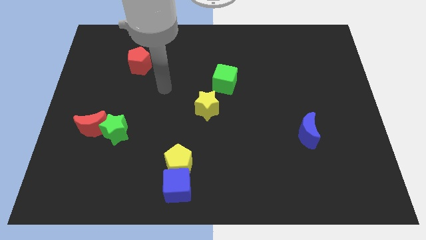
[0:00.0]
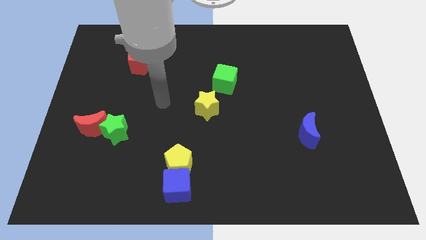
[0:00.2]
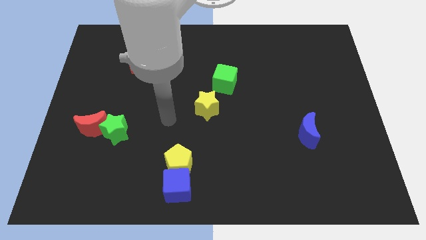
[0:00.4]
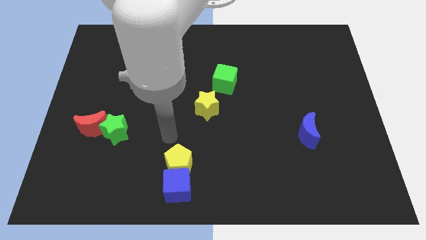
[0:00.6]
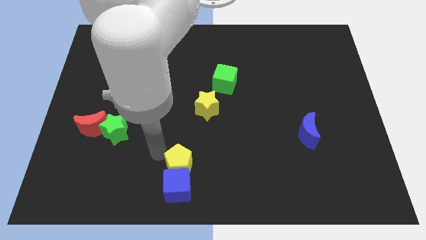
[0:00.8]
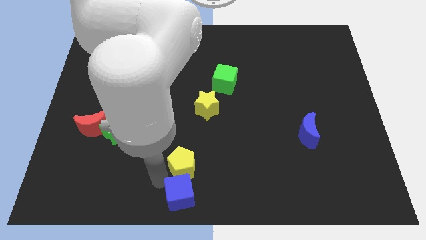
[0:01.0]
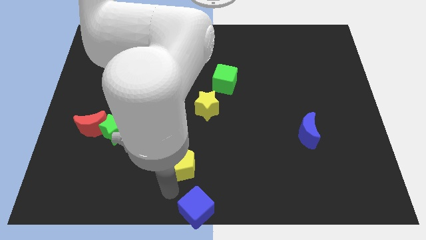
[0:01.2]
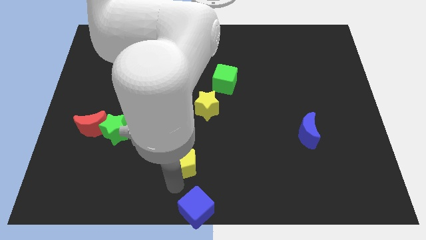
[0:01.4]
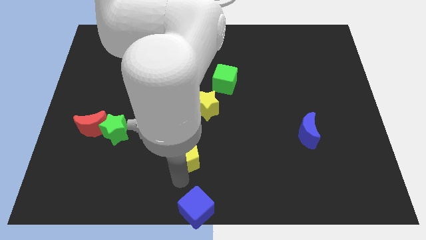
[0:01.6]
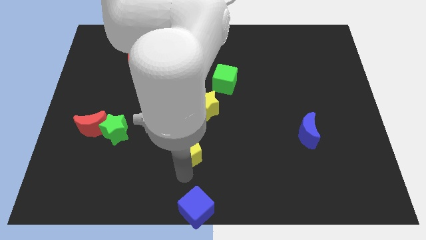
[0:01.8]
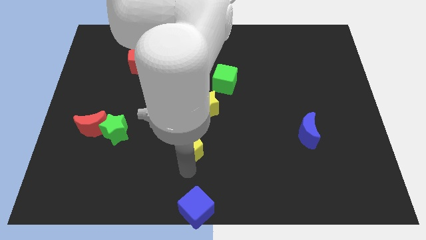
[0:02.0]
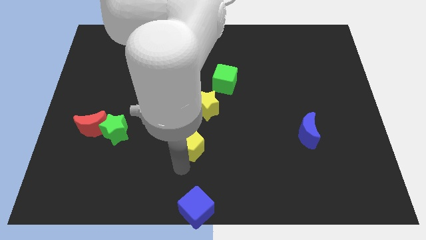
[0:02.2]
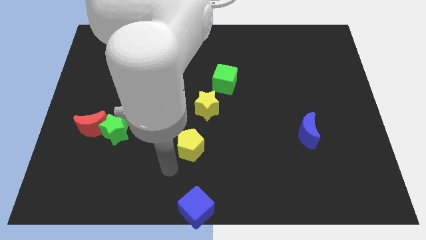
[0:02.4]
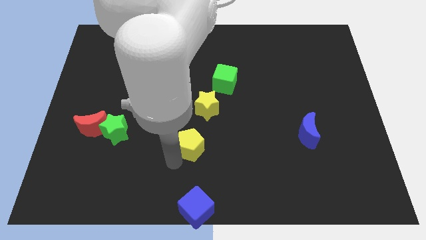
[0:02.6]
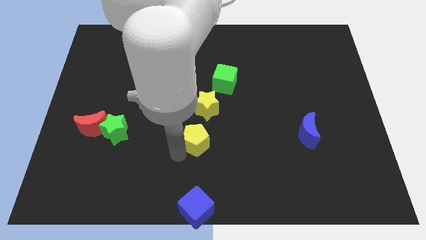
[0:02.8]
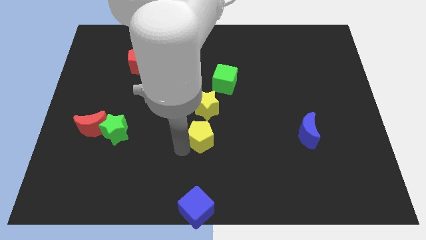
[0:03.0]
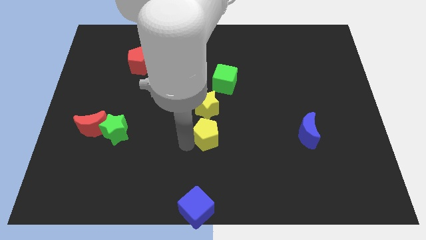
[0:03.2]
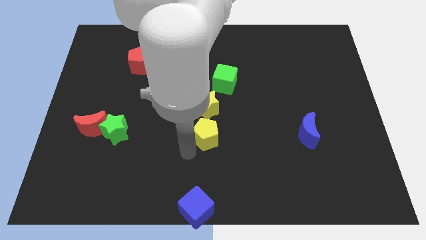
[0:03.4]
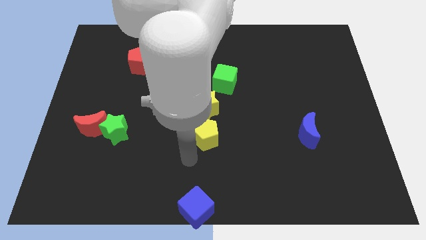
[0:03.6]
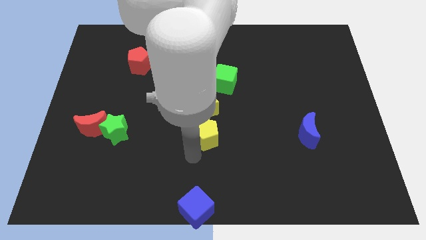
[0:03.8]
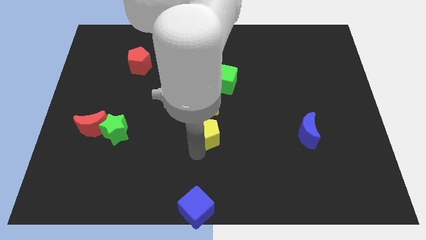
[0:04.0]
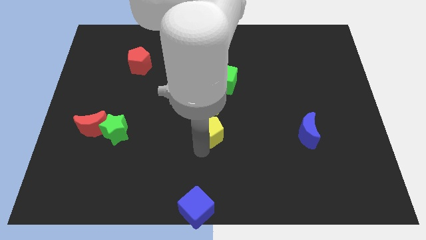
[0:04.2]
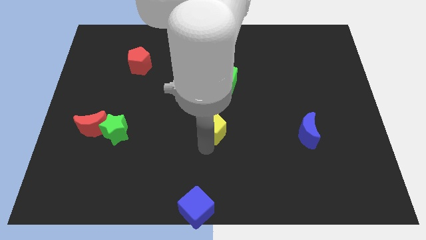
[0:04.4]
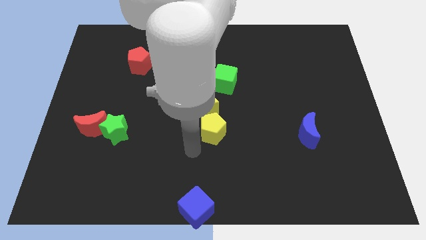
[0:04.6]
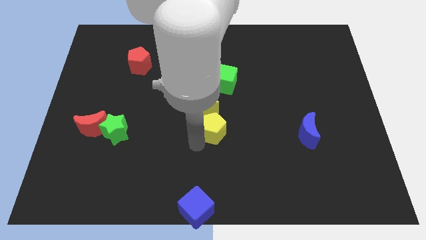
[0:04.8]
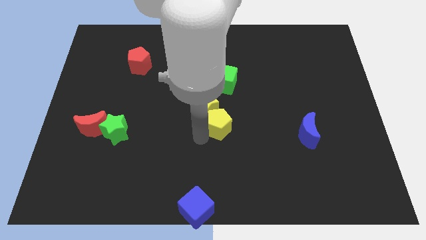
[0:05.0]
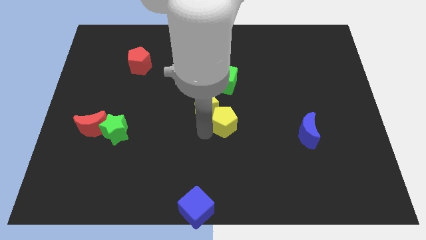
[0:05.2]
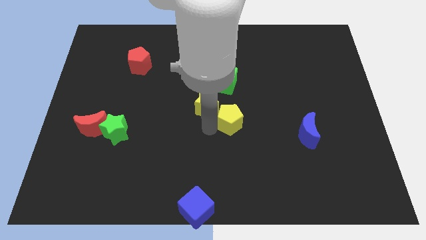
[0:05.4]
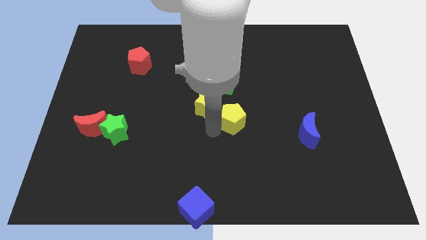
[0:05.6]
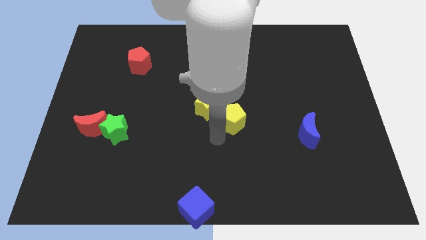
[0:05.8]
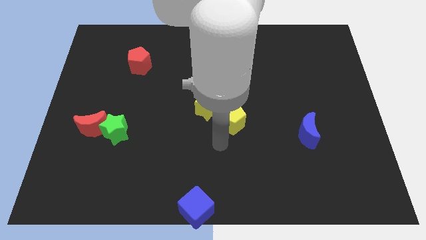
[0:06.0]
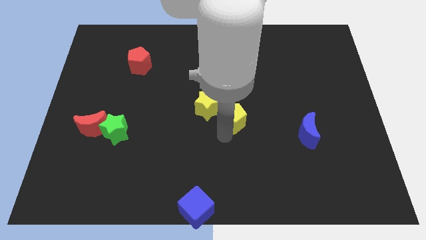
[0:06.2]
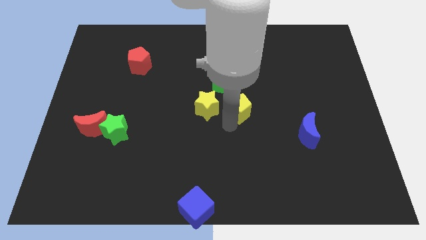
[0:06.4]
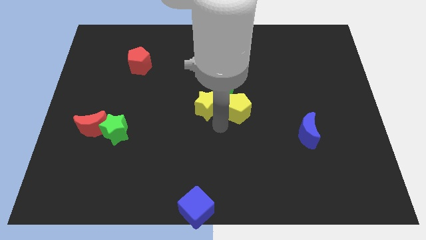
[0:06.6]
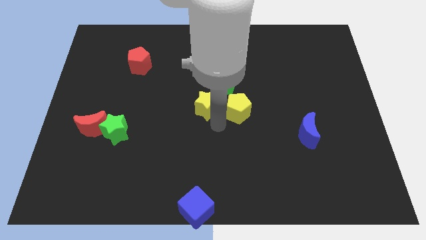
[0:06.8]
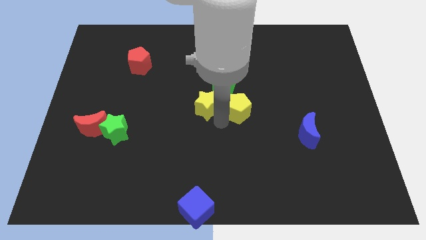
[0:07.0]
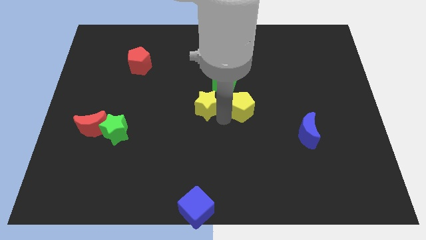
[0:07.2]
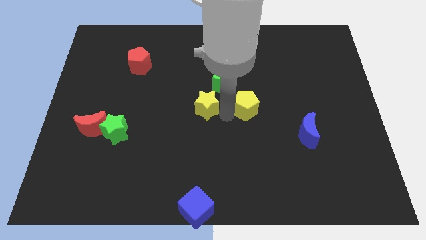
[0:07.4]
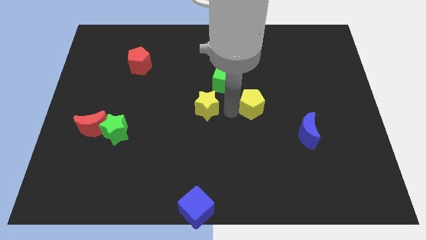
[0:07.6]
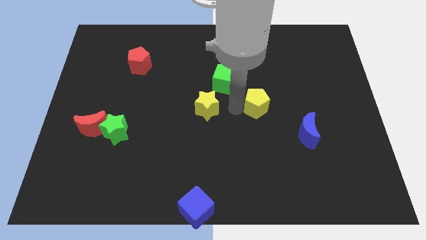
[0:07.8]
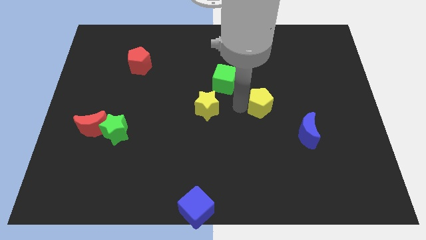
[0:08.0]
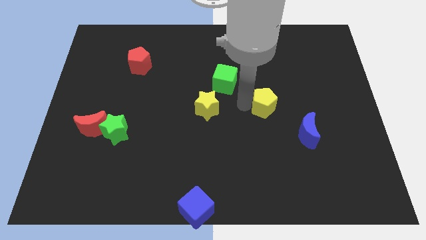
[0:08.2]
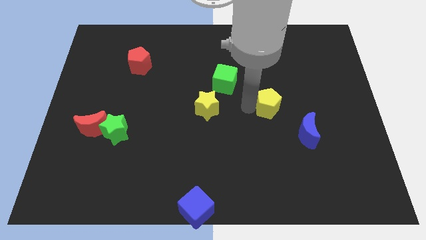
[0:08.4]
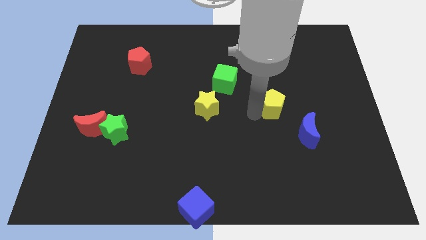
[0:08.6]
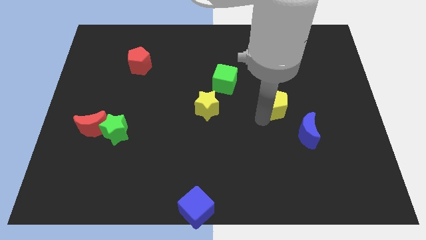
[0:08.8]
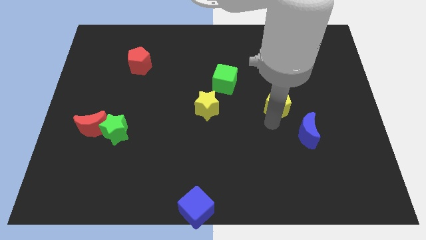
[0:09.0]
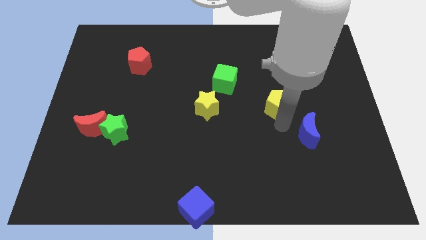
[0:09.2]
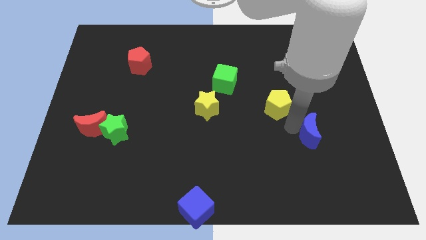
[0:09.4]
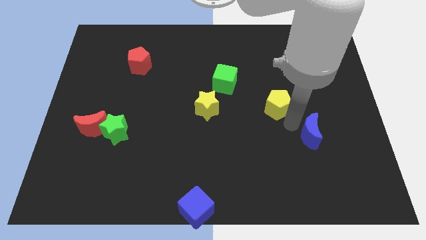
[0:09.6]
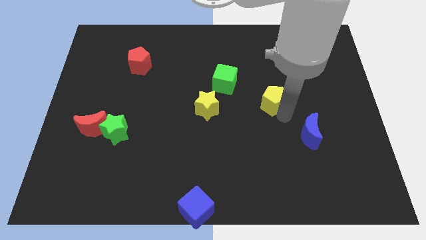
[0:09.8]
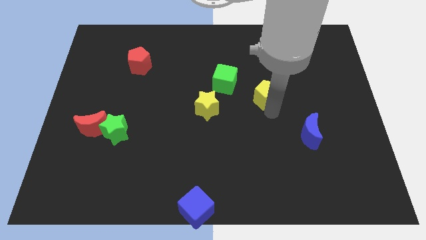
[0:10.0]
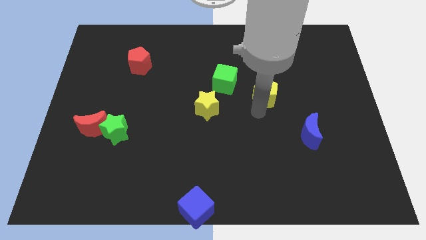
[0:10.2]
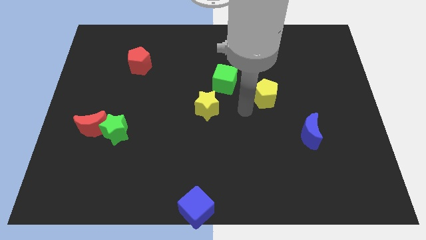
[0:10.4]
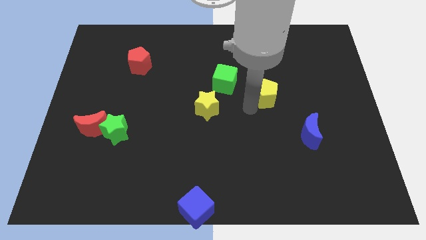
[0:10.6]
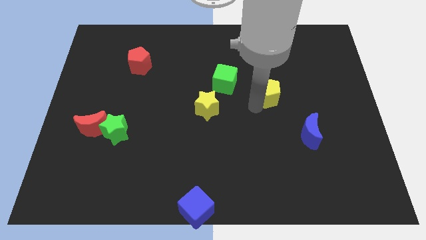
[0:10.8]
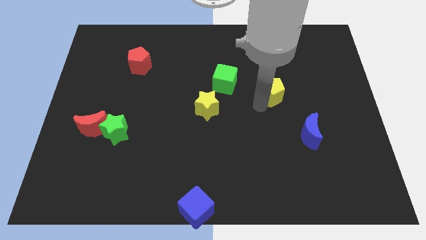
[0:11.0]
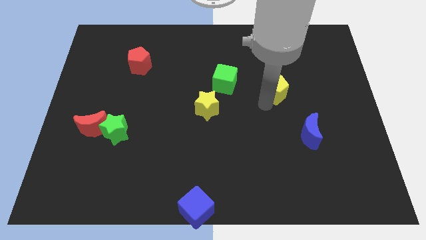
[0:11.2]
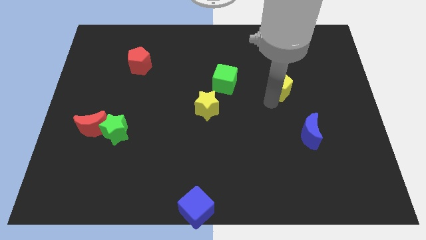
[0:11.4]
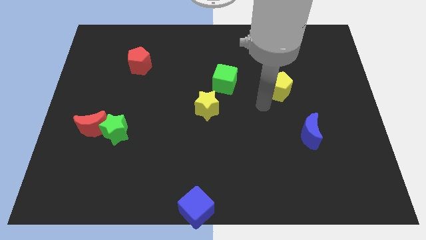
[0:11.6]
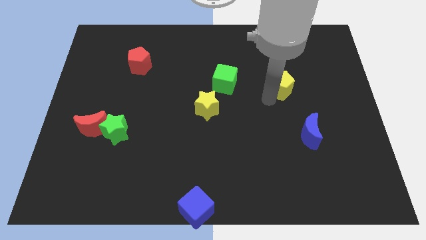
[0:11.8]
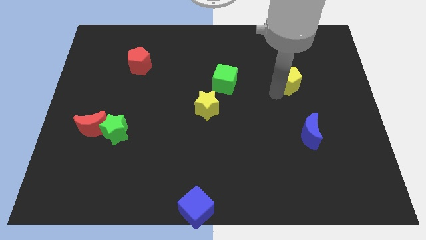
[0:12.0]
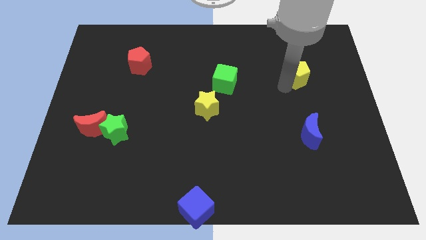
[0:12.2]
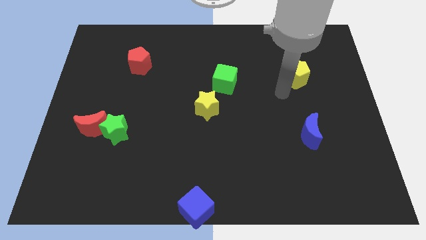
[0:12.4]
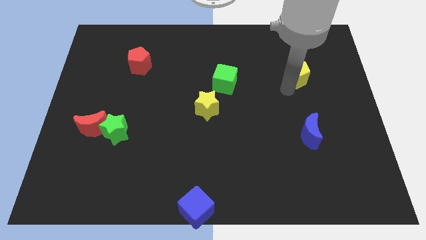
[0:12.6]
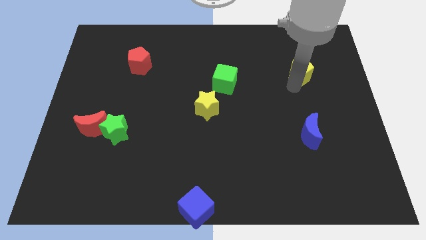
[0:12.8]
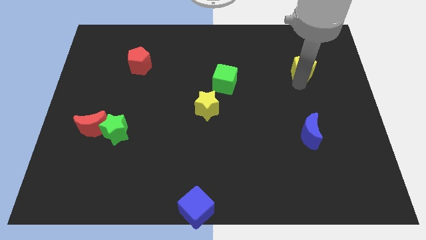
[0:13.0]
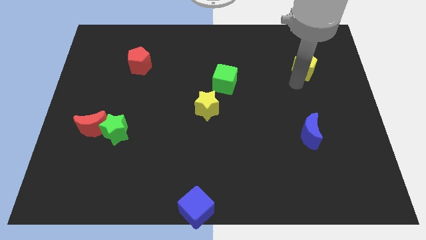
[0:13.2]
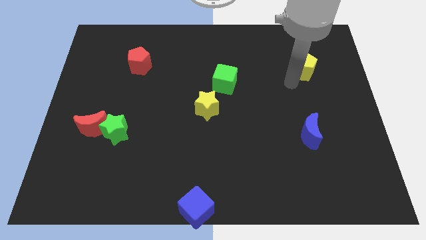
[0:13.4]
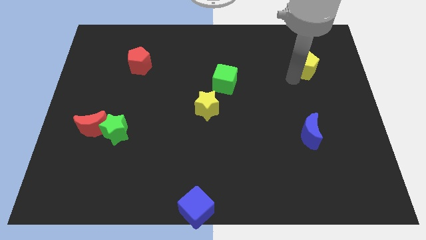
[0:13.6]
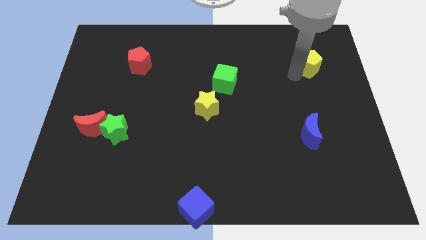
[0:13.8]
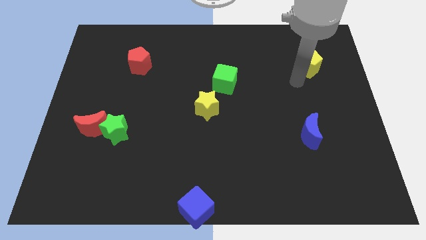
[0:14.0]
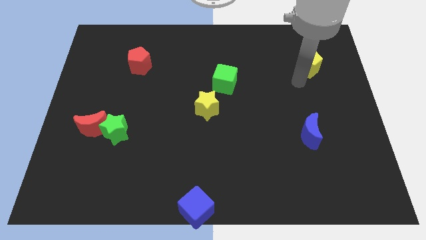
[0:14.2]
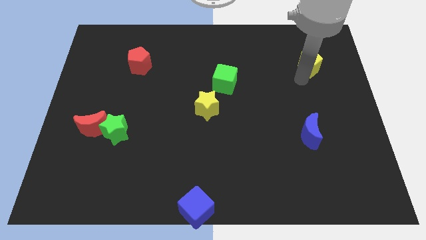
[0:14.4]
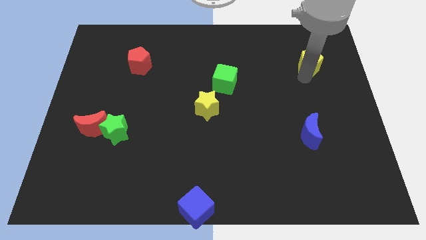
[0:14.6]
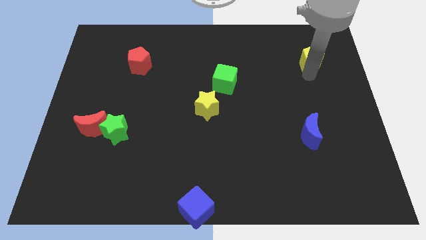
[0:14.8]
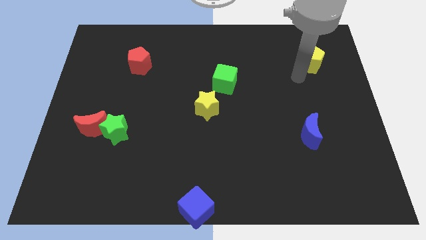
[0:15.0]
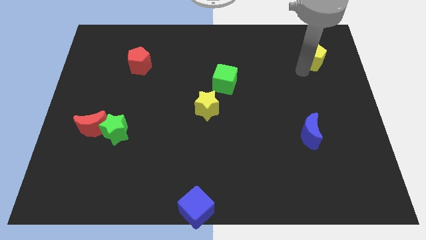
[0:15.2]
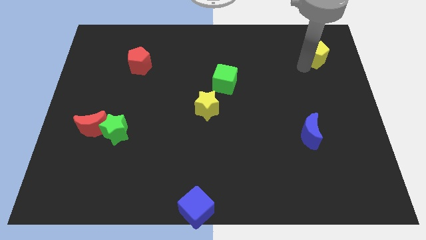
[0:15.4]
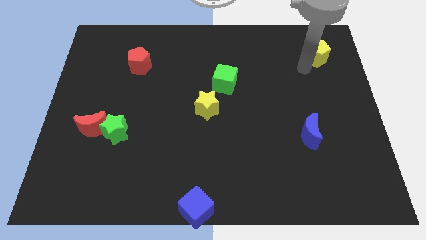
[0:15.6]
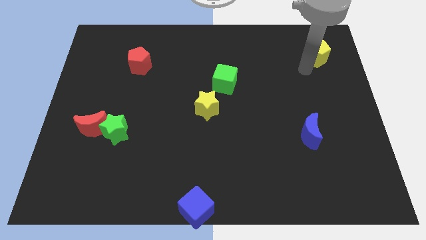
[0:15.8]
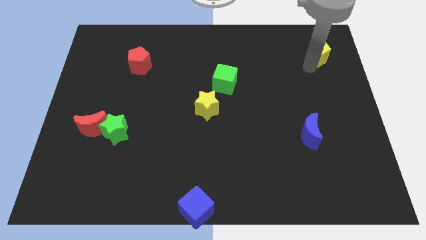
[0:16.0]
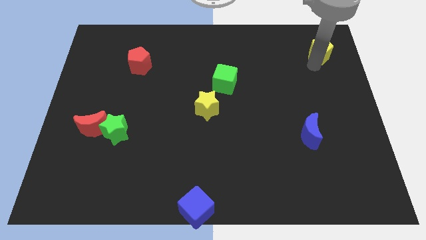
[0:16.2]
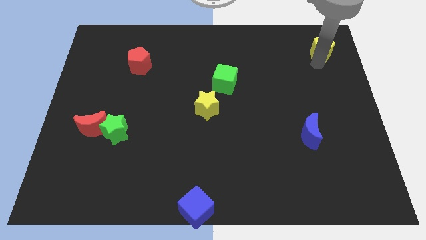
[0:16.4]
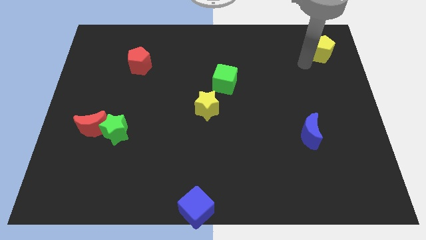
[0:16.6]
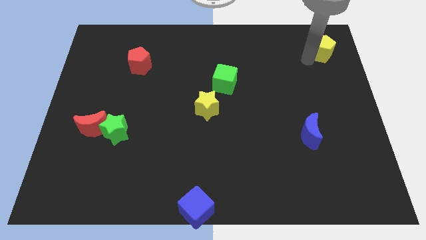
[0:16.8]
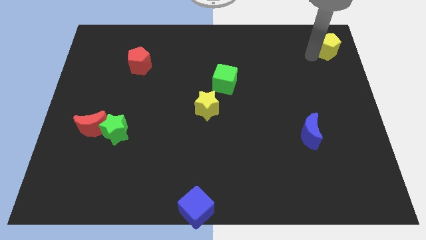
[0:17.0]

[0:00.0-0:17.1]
push the yellow pentagon to the top right corner
